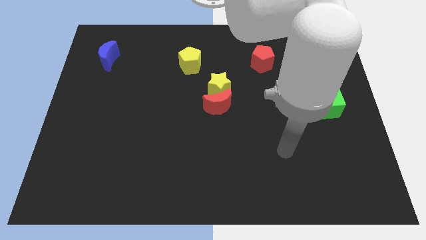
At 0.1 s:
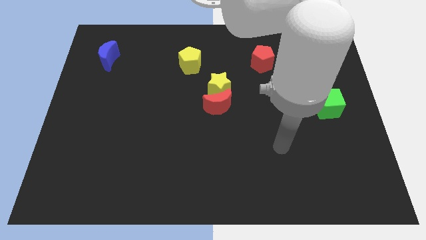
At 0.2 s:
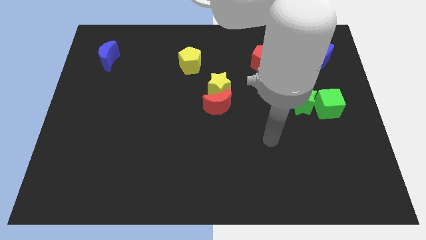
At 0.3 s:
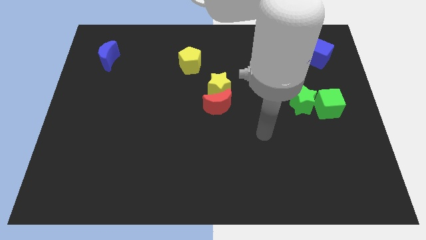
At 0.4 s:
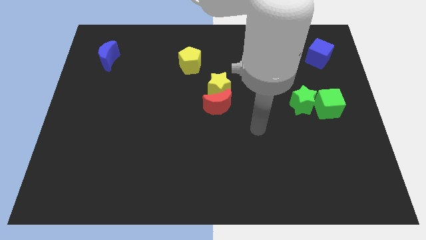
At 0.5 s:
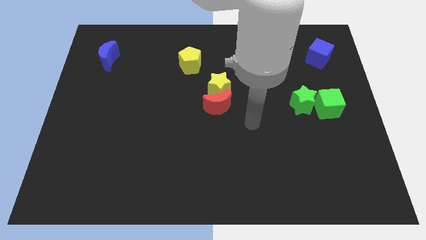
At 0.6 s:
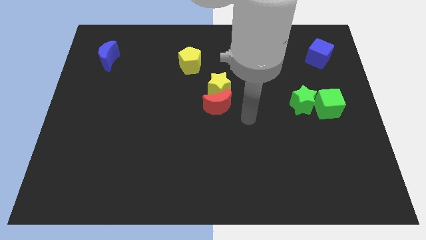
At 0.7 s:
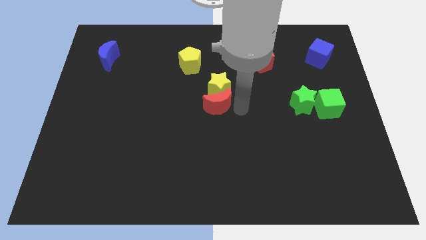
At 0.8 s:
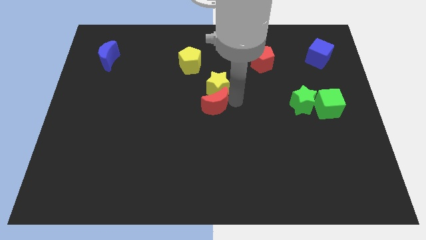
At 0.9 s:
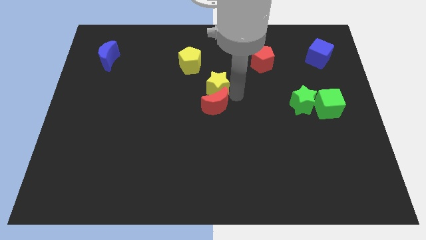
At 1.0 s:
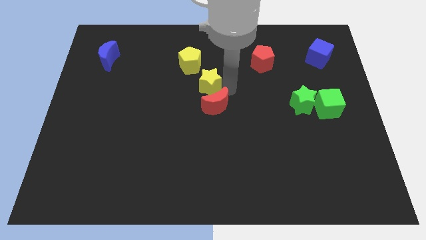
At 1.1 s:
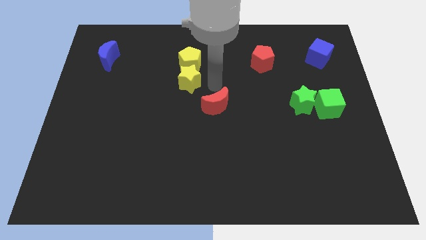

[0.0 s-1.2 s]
separate the red moon from the yellow star

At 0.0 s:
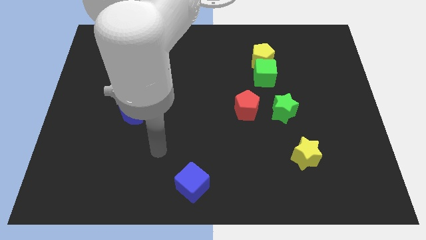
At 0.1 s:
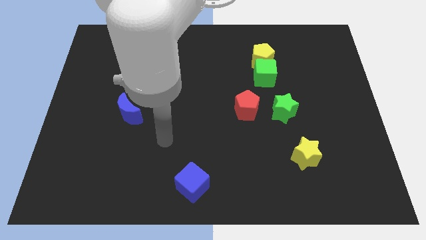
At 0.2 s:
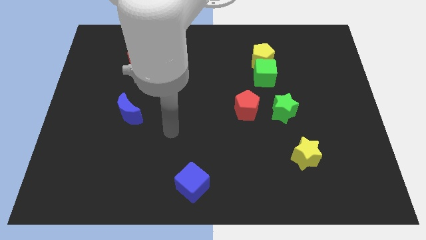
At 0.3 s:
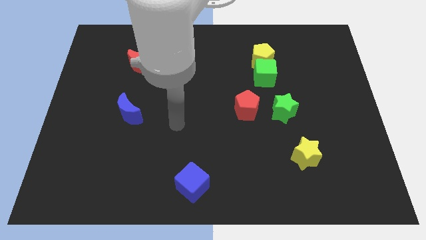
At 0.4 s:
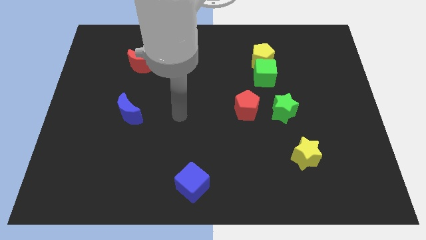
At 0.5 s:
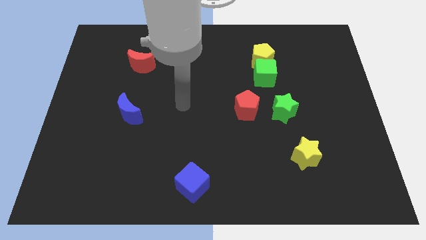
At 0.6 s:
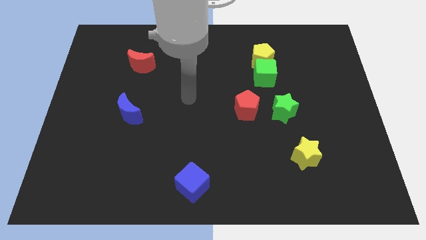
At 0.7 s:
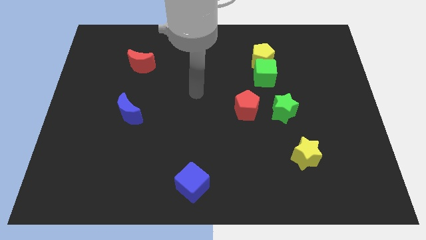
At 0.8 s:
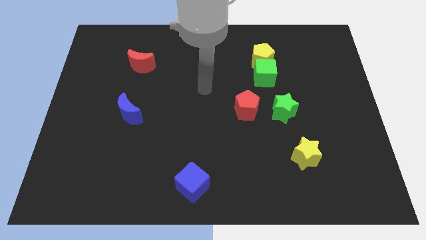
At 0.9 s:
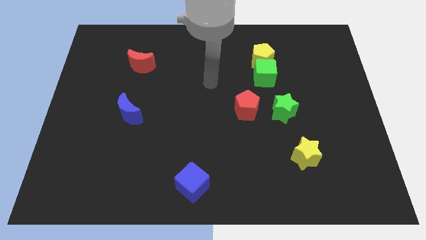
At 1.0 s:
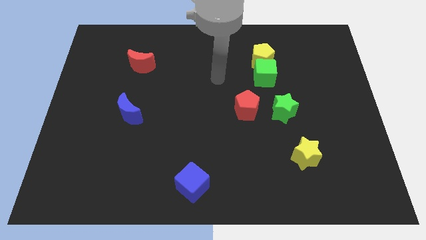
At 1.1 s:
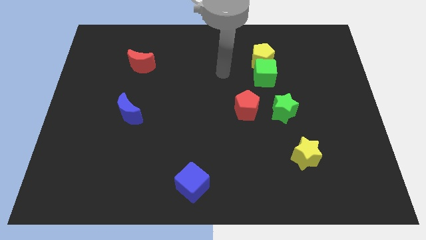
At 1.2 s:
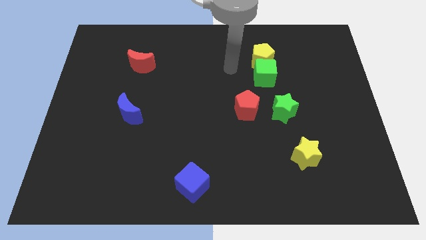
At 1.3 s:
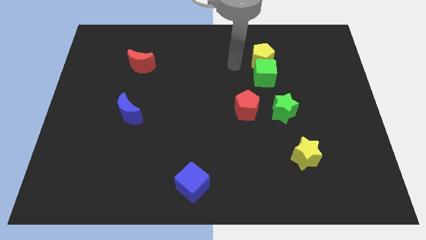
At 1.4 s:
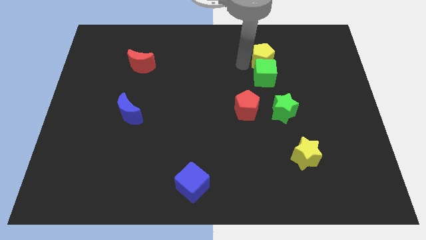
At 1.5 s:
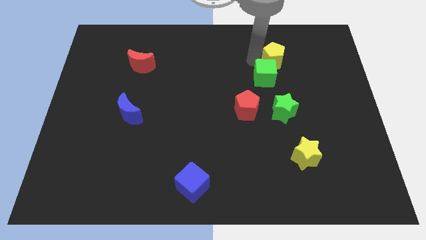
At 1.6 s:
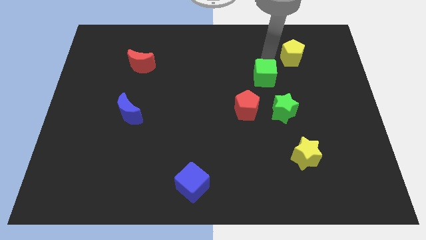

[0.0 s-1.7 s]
pull the green cube apart from the yellow pentagon

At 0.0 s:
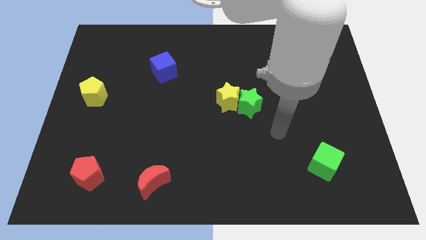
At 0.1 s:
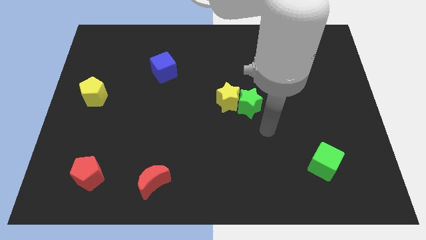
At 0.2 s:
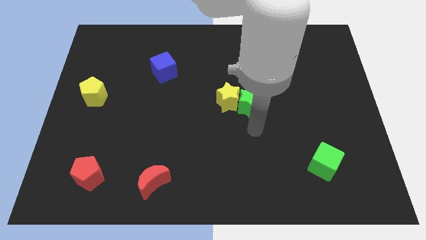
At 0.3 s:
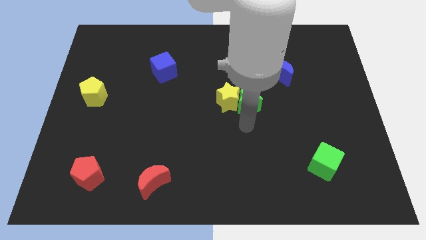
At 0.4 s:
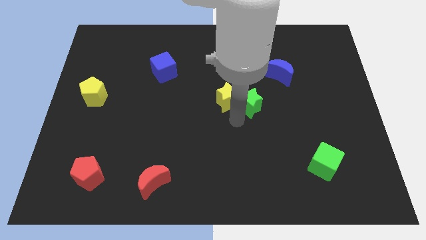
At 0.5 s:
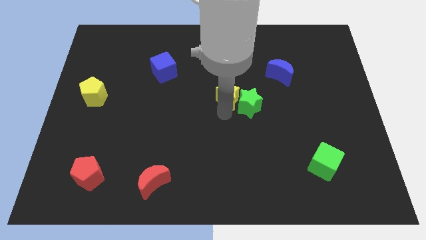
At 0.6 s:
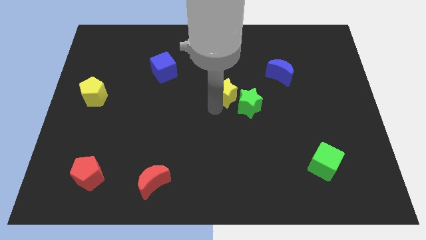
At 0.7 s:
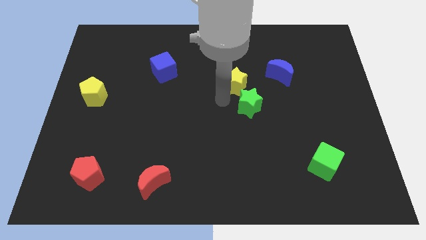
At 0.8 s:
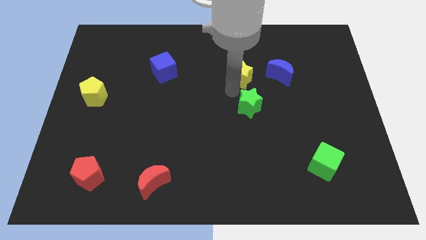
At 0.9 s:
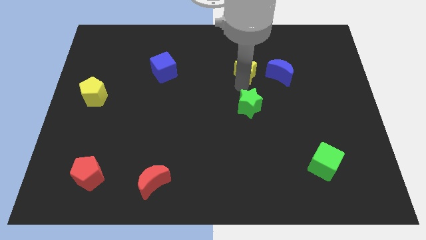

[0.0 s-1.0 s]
move the green star away from the yellow star

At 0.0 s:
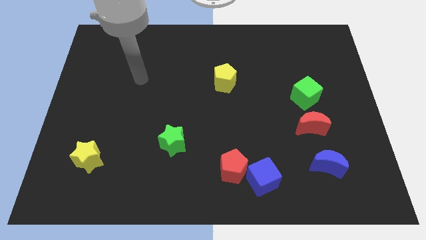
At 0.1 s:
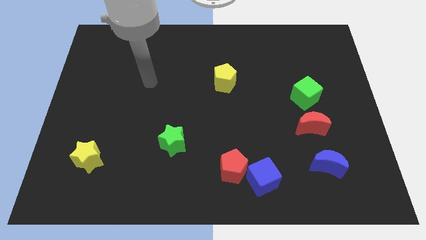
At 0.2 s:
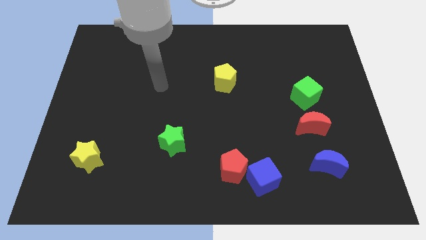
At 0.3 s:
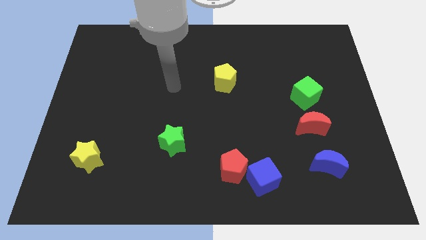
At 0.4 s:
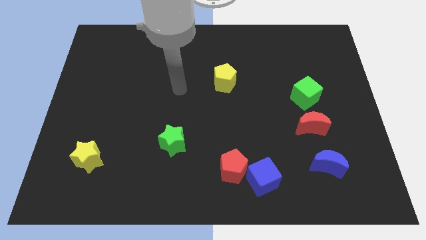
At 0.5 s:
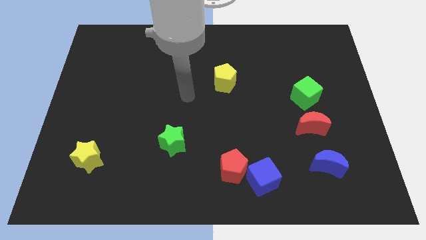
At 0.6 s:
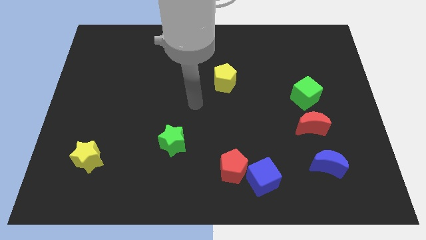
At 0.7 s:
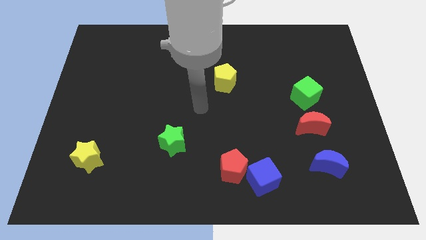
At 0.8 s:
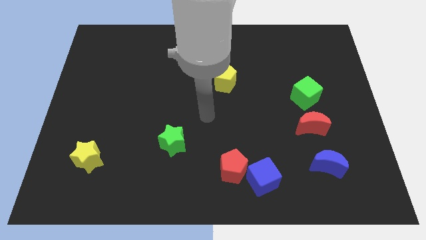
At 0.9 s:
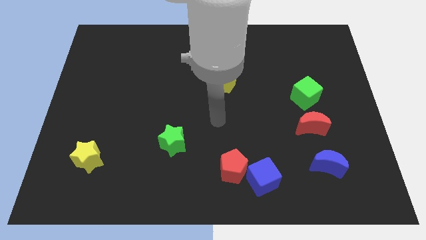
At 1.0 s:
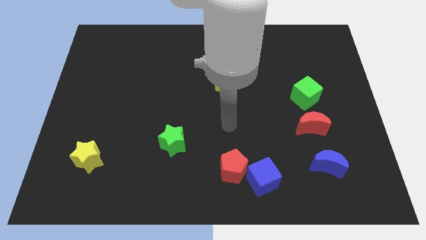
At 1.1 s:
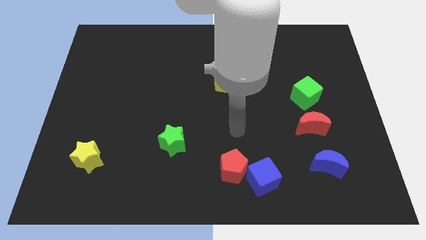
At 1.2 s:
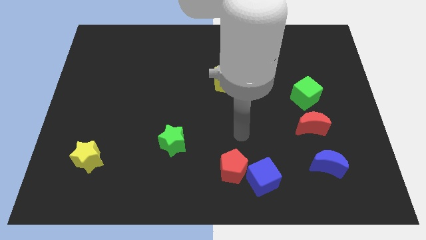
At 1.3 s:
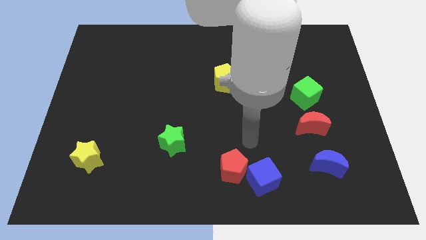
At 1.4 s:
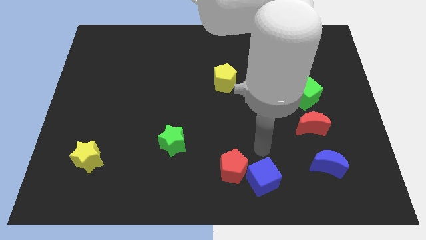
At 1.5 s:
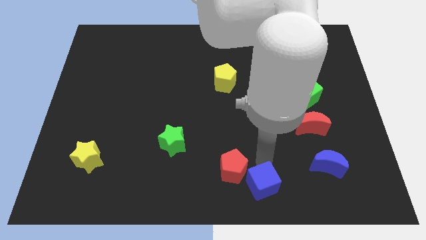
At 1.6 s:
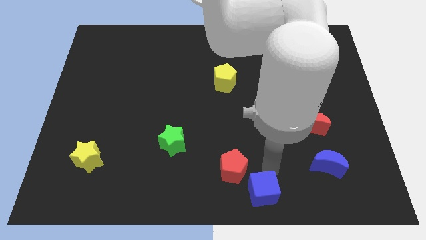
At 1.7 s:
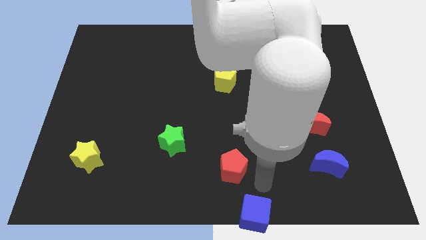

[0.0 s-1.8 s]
separate the red pentagon from the blue cube

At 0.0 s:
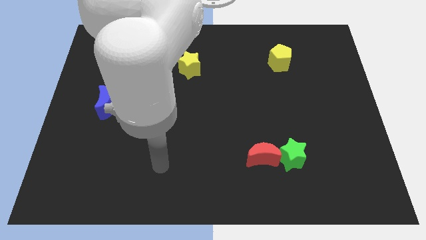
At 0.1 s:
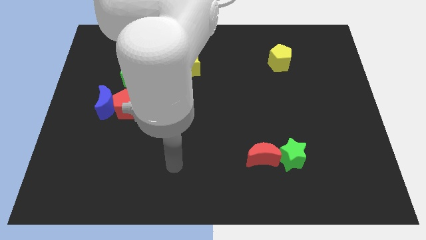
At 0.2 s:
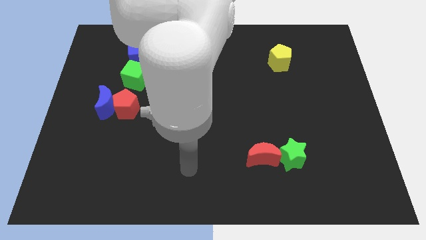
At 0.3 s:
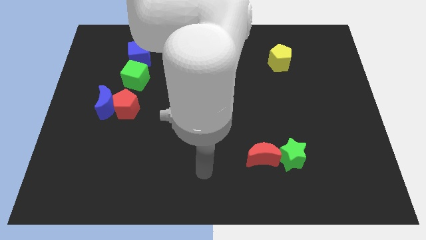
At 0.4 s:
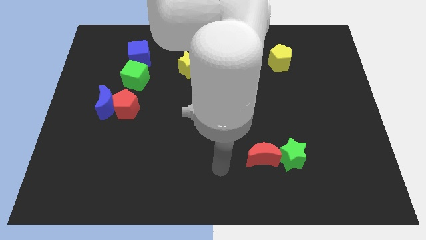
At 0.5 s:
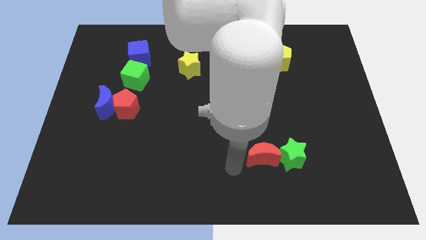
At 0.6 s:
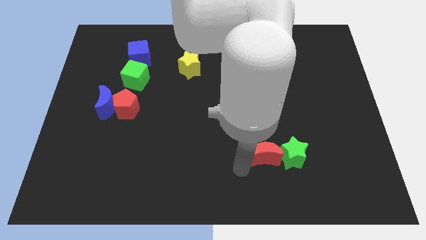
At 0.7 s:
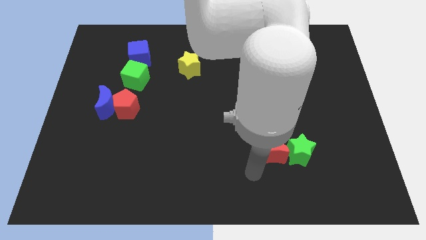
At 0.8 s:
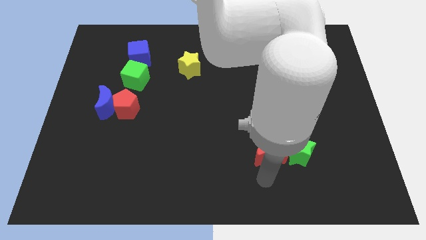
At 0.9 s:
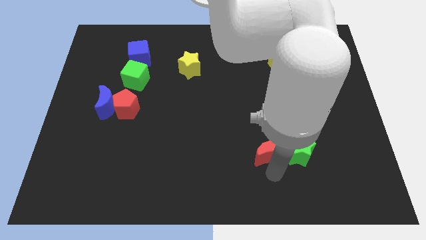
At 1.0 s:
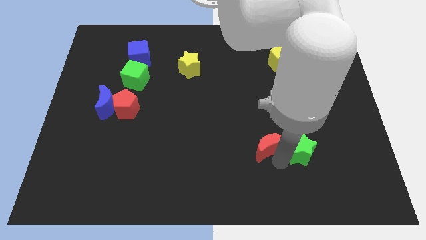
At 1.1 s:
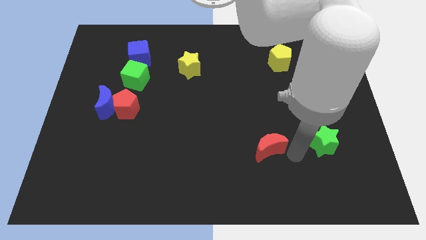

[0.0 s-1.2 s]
move the red moon away from the green star

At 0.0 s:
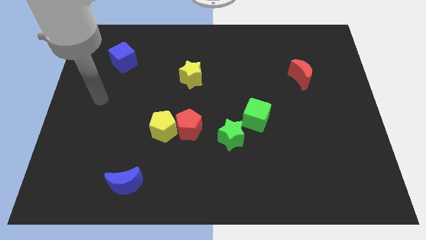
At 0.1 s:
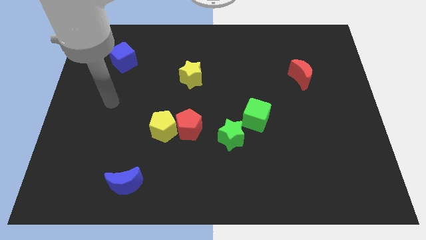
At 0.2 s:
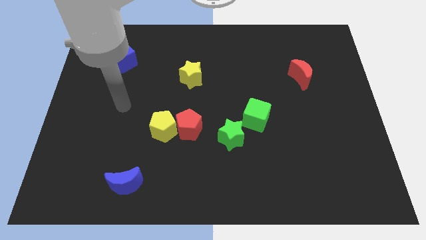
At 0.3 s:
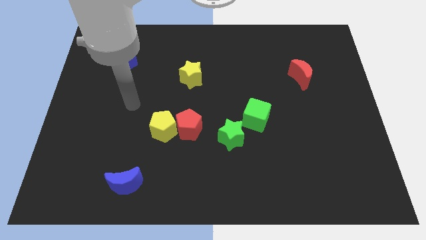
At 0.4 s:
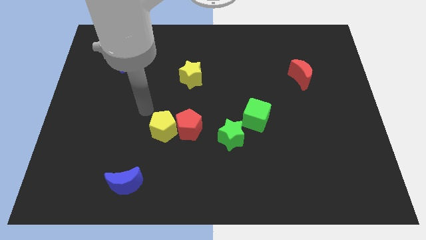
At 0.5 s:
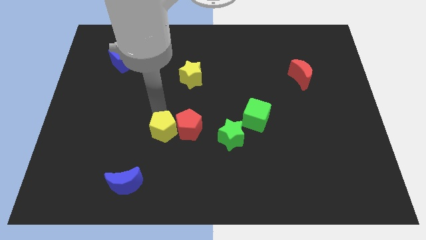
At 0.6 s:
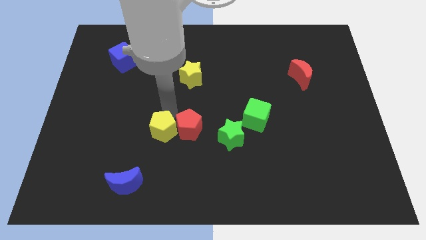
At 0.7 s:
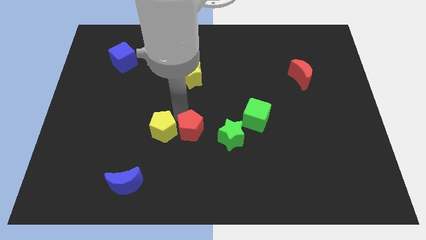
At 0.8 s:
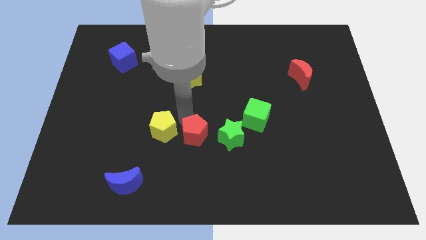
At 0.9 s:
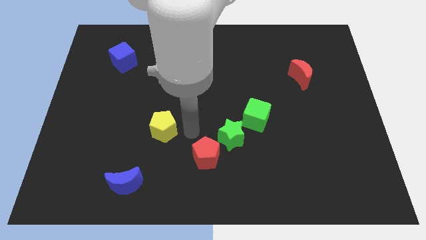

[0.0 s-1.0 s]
separate the yellow pentagon from the red pentagon

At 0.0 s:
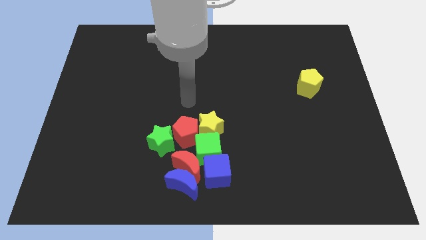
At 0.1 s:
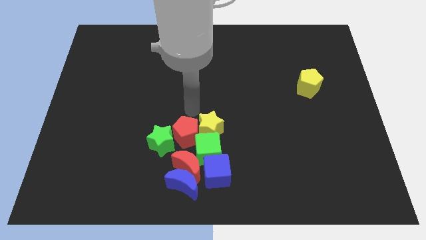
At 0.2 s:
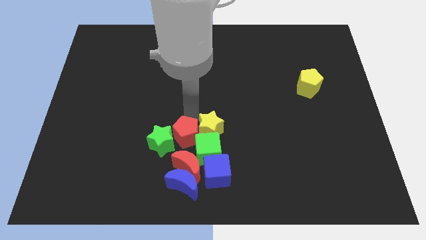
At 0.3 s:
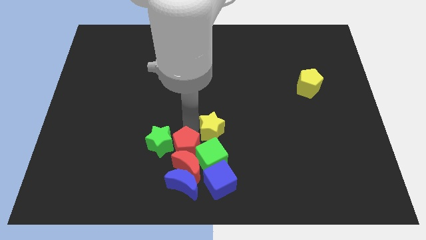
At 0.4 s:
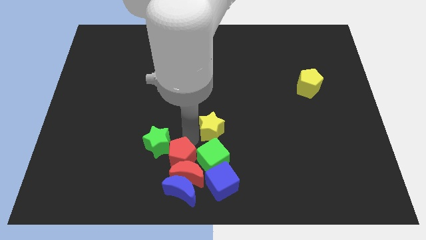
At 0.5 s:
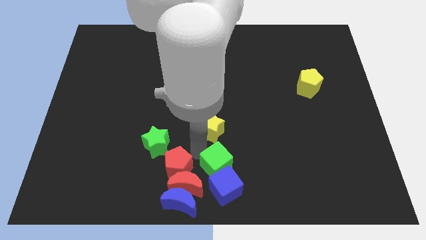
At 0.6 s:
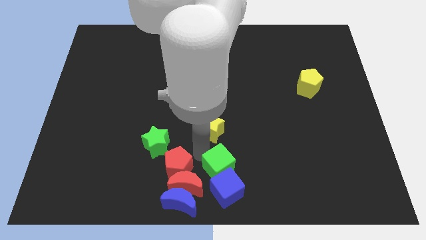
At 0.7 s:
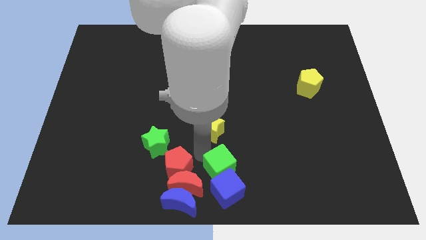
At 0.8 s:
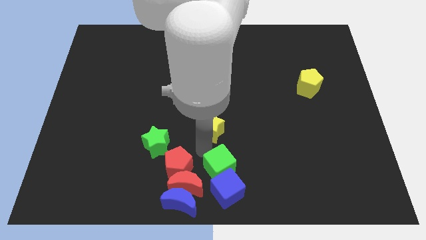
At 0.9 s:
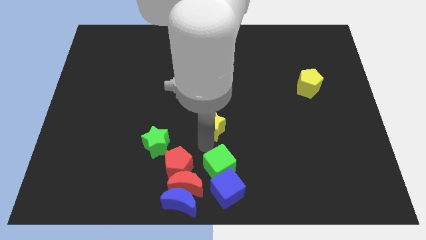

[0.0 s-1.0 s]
pull the yellow star apart from the red pentagon and green cube

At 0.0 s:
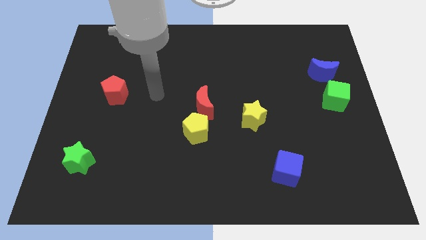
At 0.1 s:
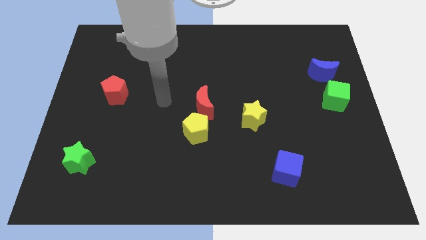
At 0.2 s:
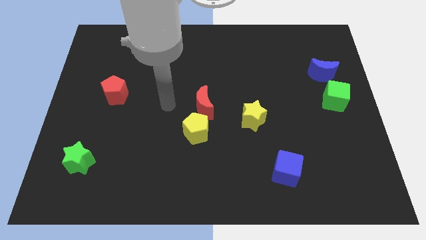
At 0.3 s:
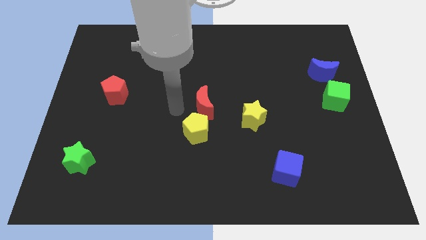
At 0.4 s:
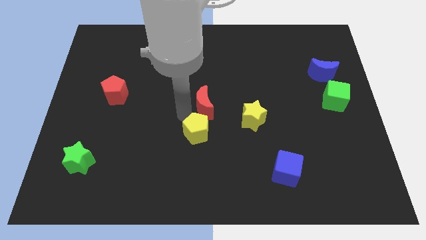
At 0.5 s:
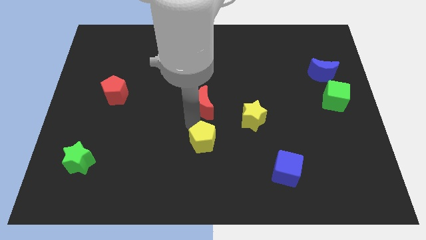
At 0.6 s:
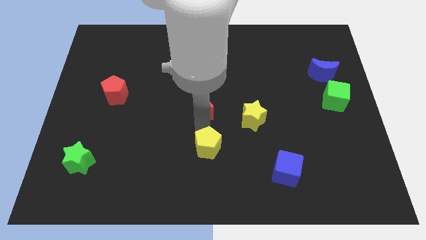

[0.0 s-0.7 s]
move the red moon away from the yellow pentagon
